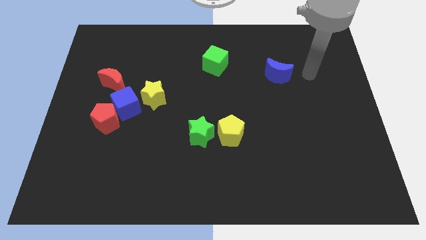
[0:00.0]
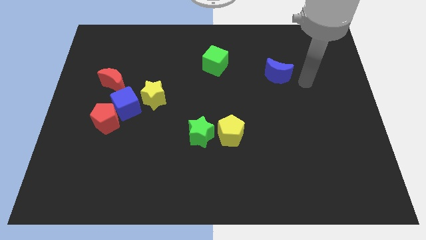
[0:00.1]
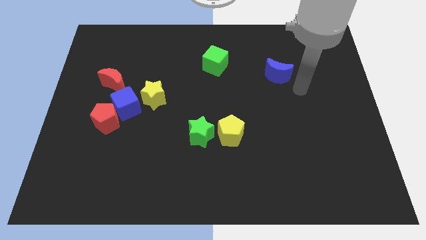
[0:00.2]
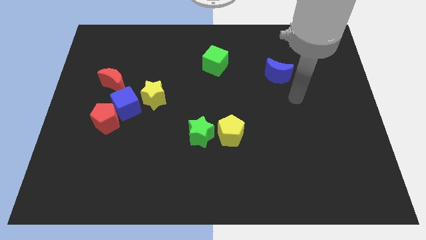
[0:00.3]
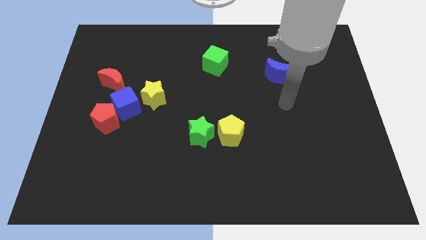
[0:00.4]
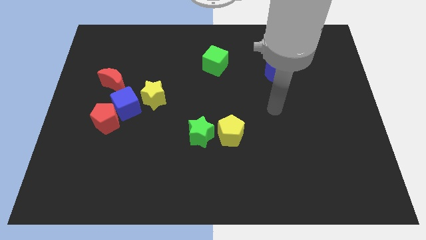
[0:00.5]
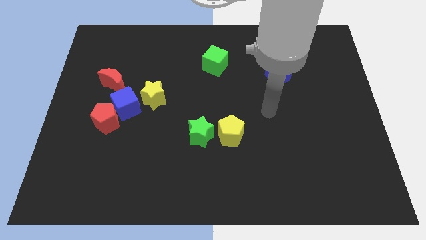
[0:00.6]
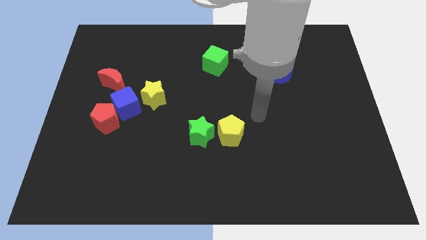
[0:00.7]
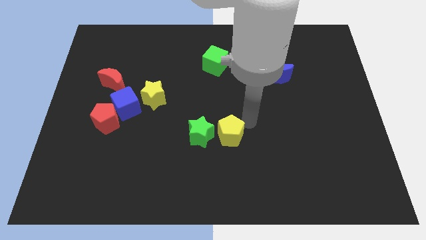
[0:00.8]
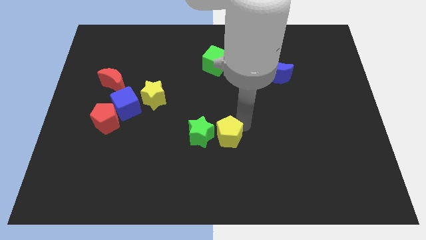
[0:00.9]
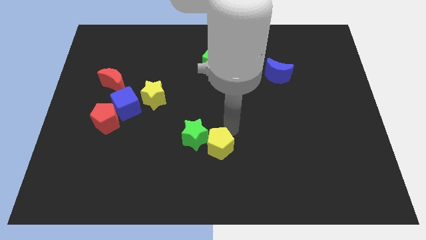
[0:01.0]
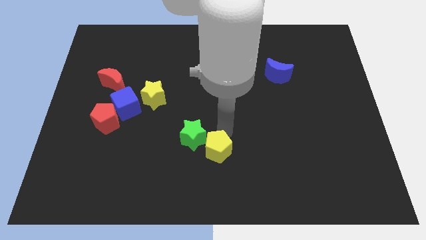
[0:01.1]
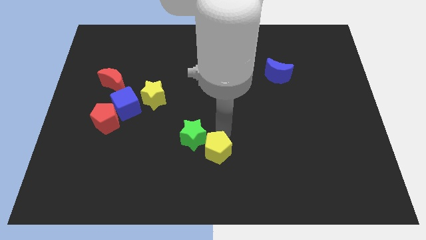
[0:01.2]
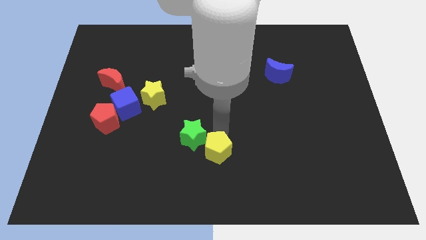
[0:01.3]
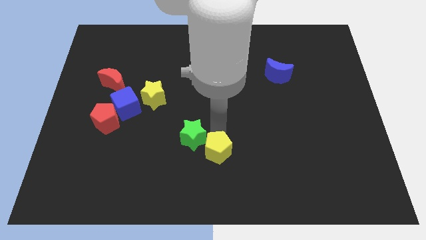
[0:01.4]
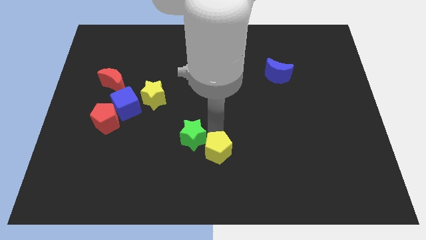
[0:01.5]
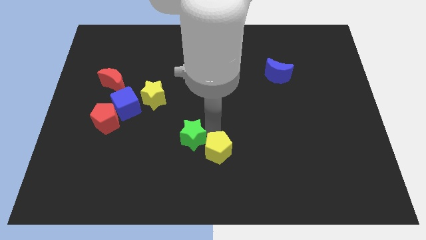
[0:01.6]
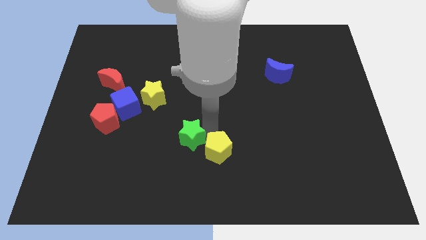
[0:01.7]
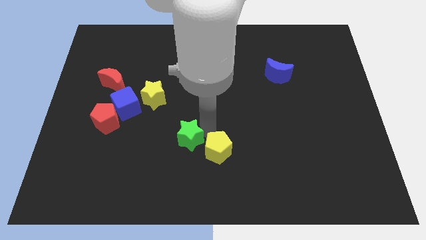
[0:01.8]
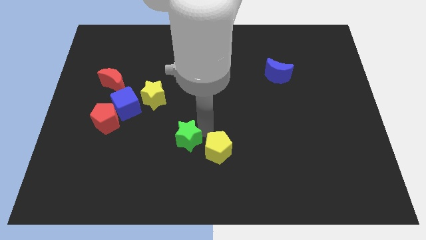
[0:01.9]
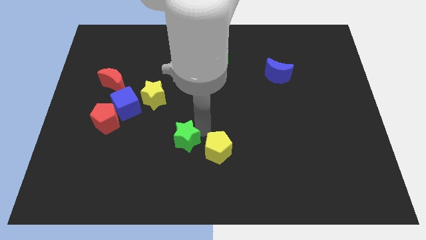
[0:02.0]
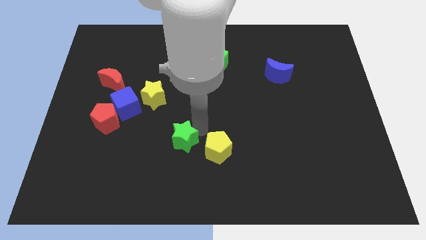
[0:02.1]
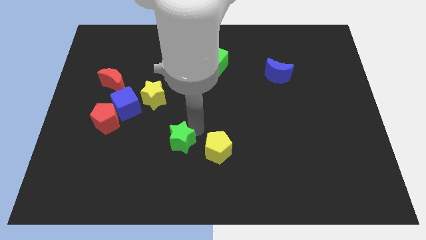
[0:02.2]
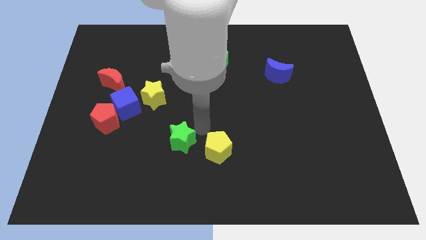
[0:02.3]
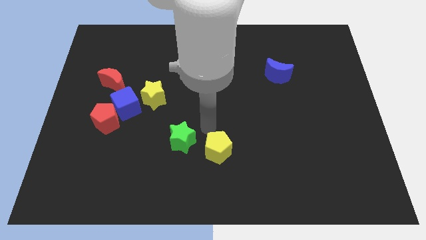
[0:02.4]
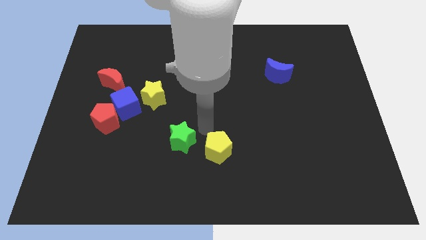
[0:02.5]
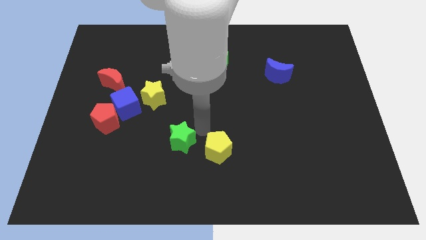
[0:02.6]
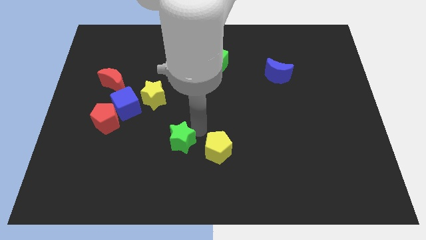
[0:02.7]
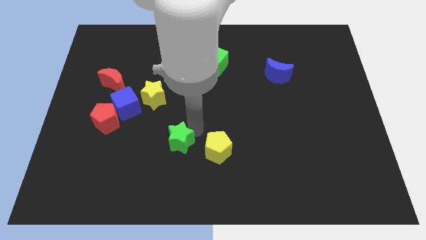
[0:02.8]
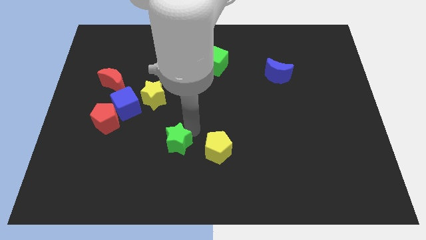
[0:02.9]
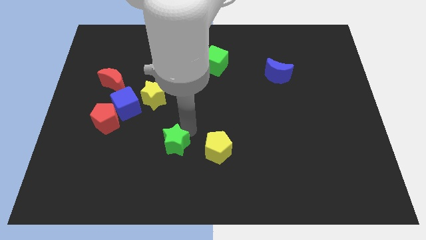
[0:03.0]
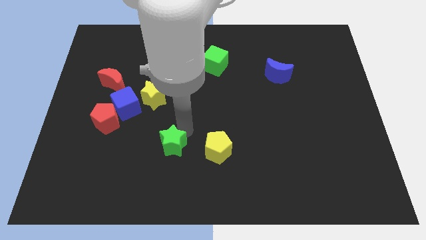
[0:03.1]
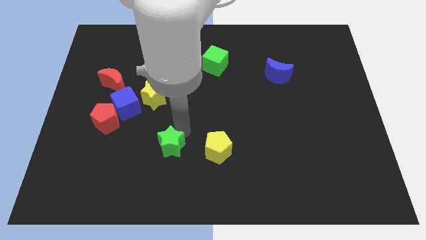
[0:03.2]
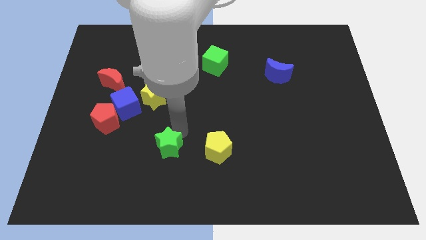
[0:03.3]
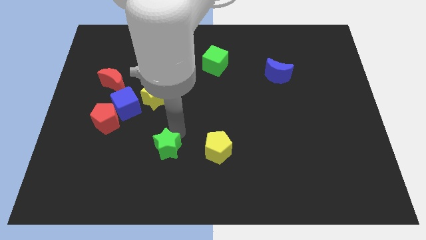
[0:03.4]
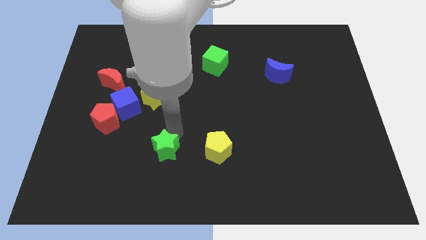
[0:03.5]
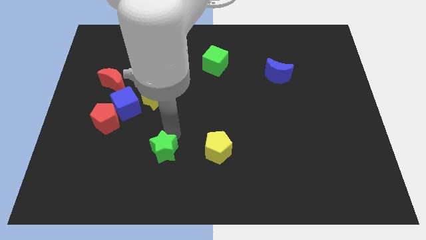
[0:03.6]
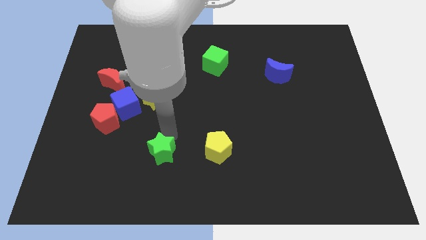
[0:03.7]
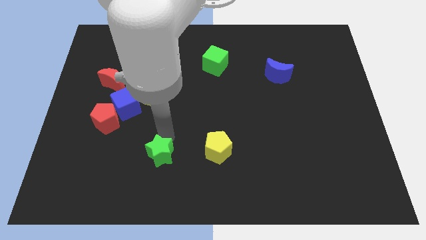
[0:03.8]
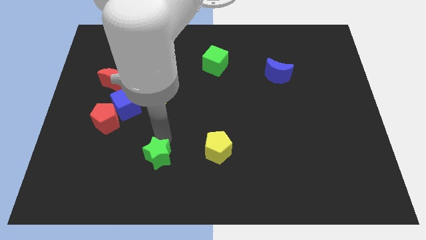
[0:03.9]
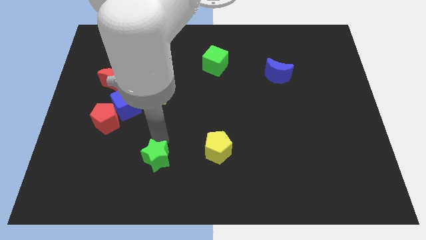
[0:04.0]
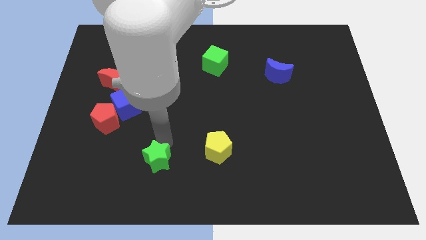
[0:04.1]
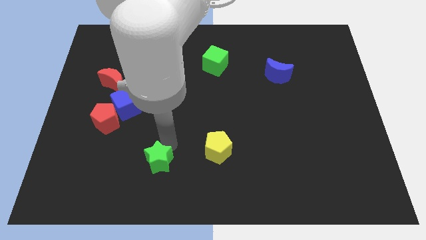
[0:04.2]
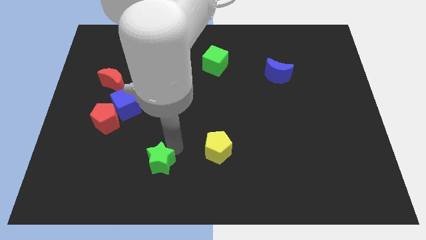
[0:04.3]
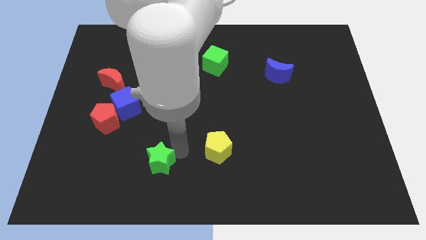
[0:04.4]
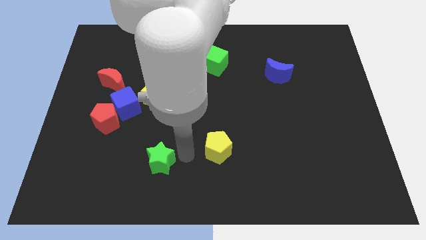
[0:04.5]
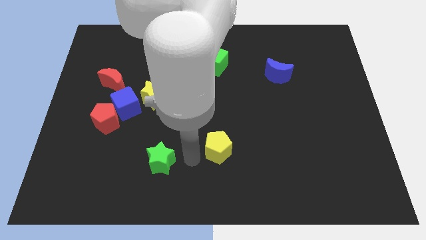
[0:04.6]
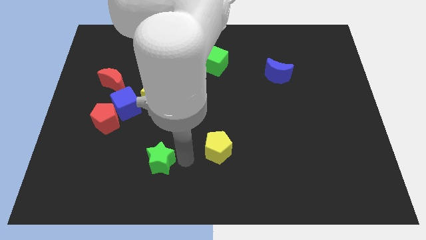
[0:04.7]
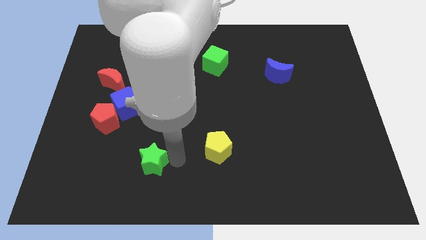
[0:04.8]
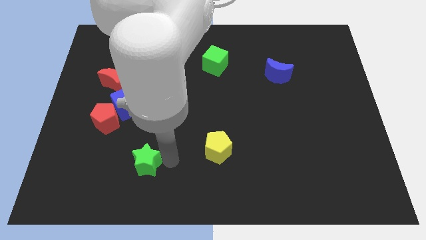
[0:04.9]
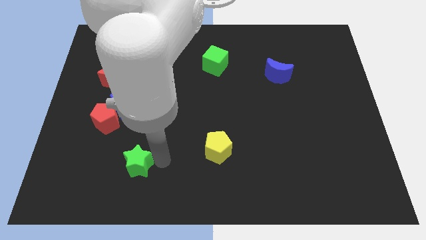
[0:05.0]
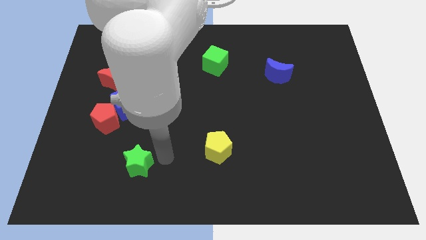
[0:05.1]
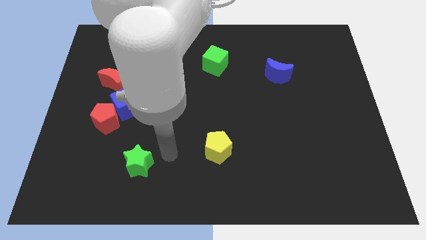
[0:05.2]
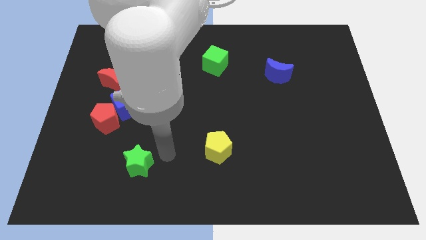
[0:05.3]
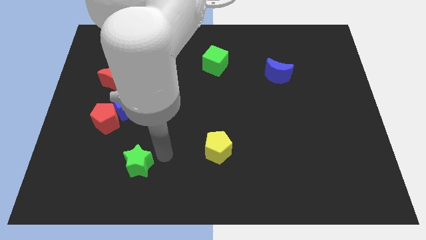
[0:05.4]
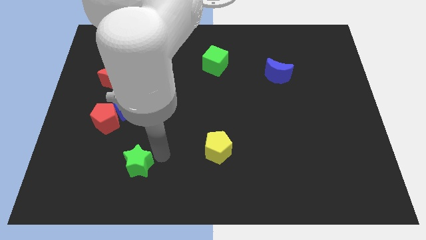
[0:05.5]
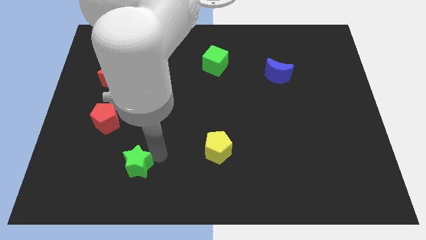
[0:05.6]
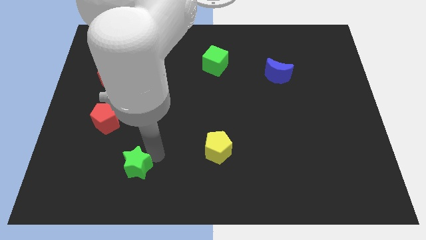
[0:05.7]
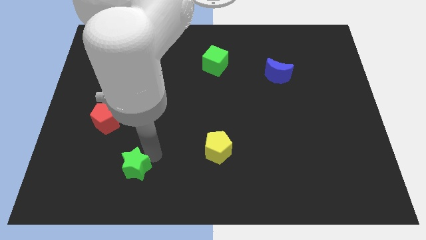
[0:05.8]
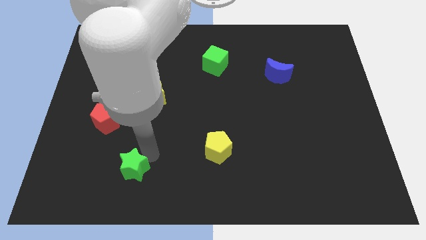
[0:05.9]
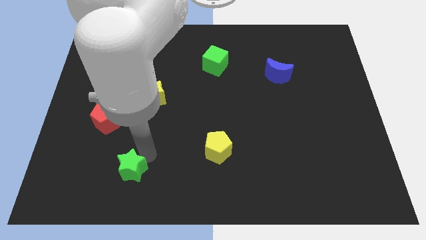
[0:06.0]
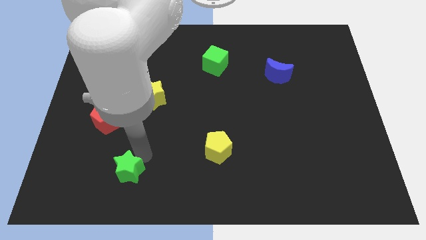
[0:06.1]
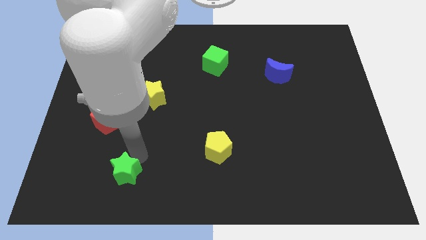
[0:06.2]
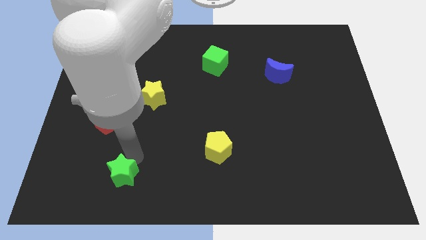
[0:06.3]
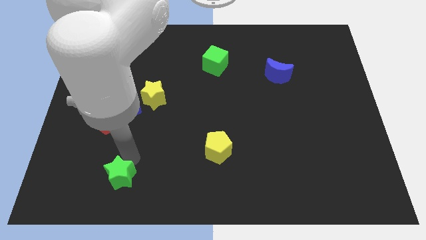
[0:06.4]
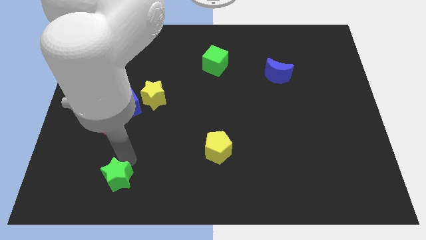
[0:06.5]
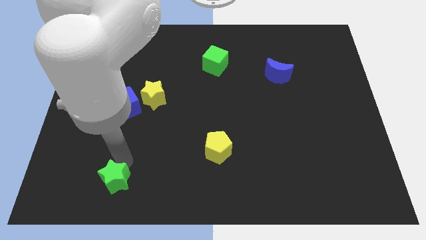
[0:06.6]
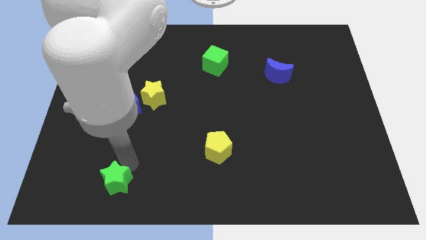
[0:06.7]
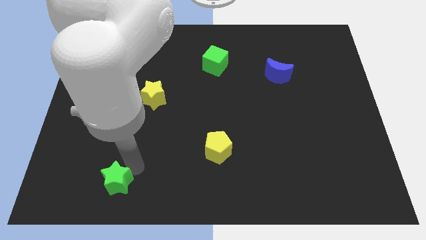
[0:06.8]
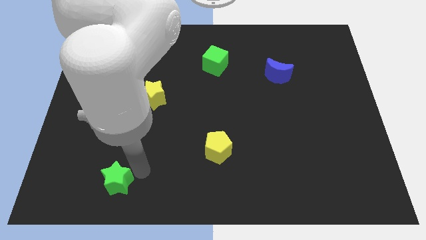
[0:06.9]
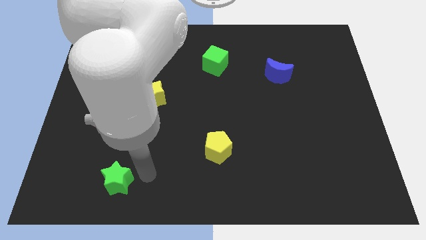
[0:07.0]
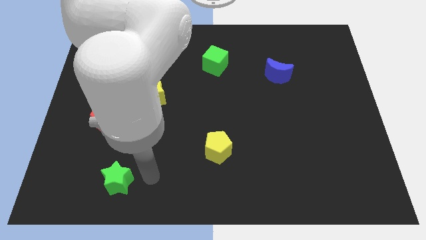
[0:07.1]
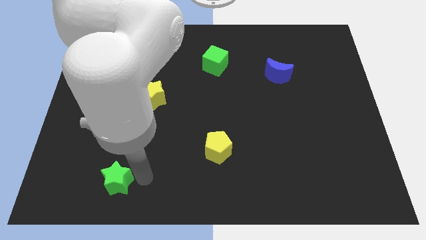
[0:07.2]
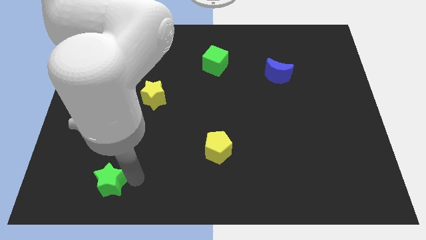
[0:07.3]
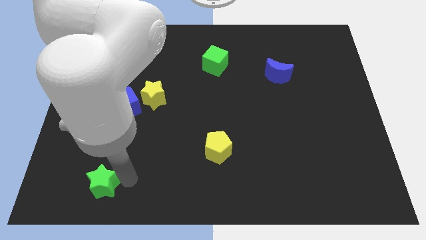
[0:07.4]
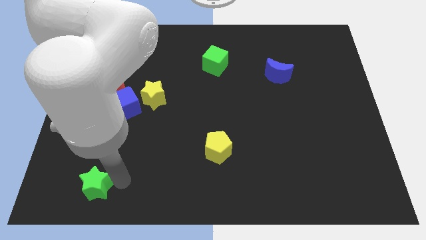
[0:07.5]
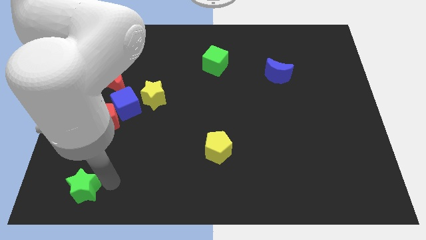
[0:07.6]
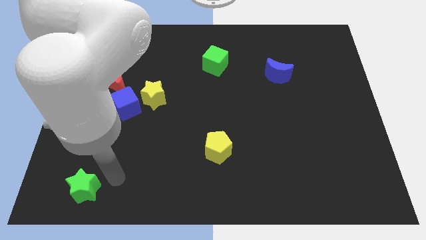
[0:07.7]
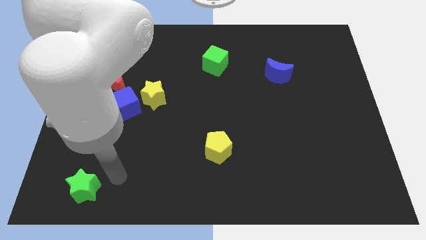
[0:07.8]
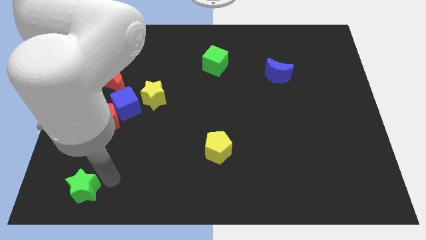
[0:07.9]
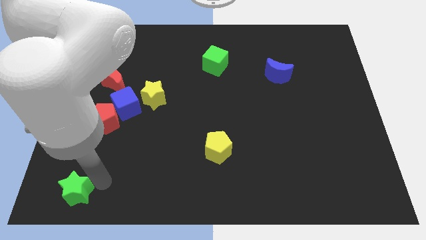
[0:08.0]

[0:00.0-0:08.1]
move the green star to the lower left corner
